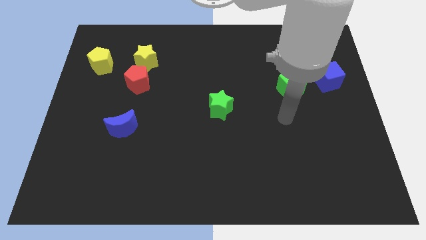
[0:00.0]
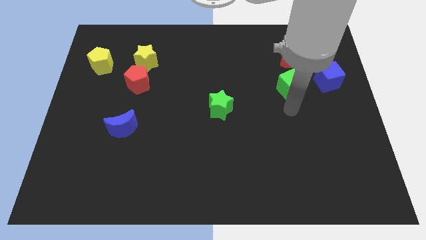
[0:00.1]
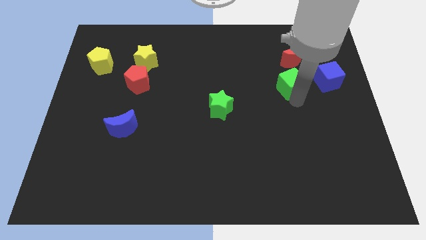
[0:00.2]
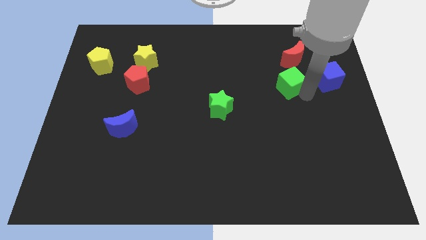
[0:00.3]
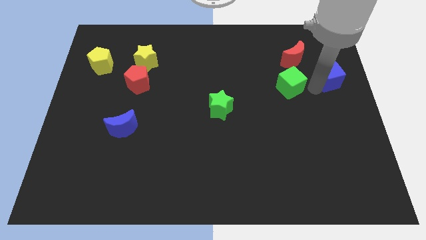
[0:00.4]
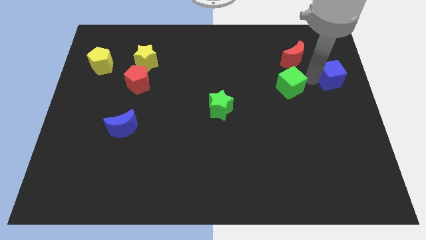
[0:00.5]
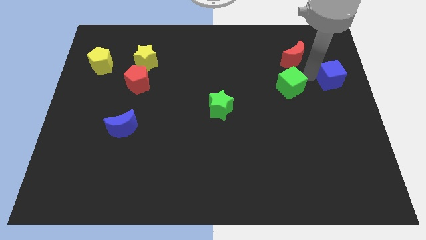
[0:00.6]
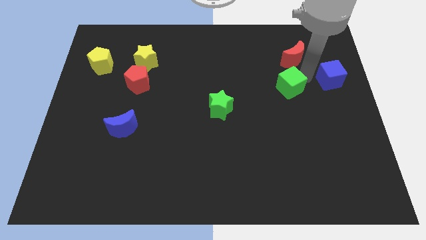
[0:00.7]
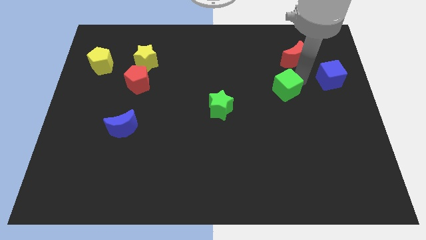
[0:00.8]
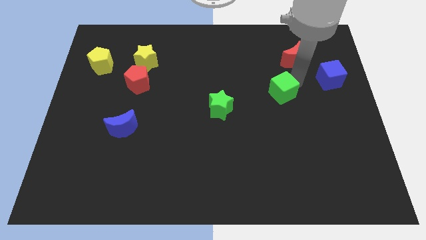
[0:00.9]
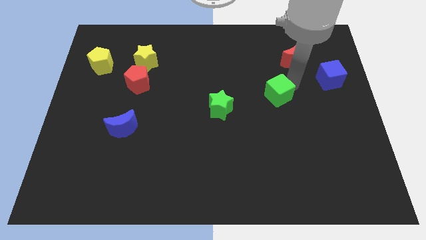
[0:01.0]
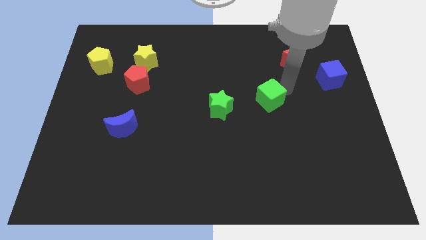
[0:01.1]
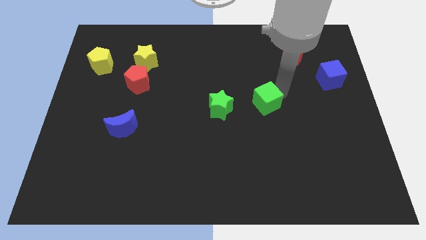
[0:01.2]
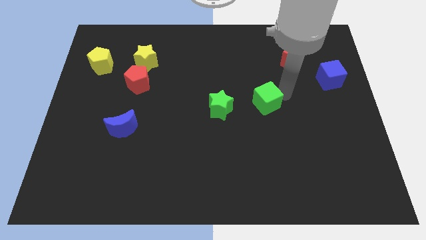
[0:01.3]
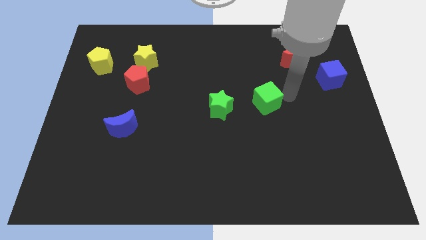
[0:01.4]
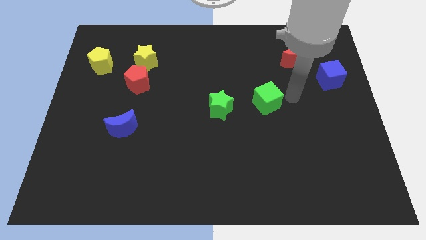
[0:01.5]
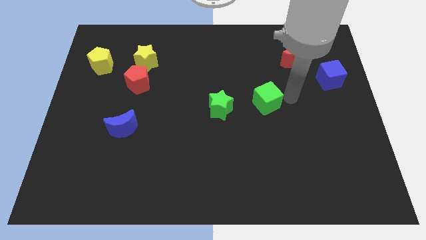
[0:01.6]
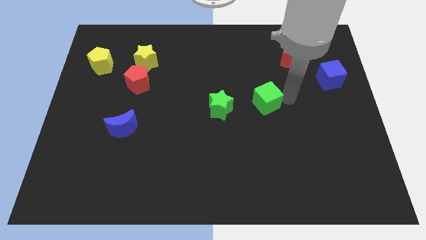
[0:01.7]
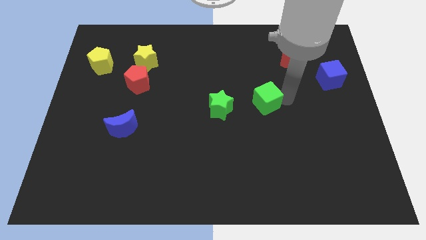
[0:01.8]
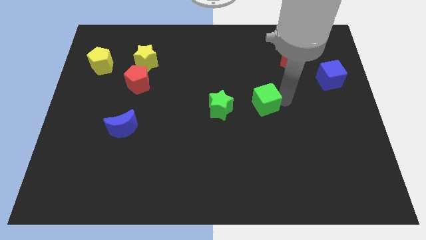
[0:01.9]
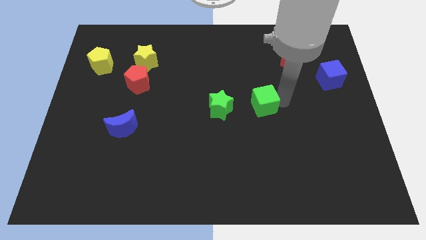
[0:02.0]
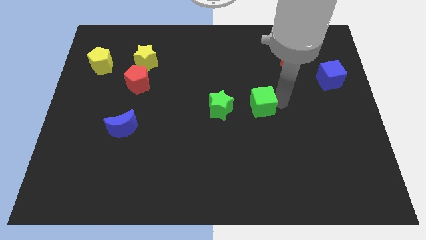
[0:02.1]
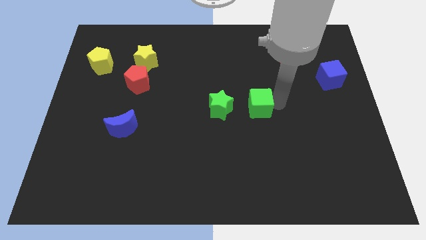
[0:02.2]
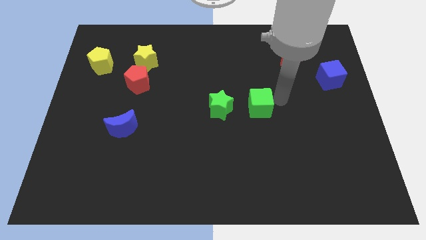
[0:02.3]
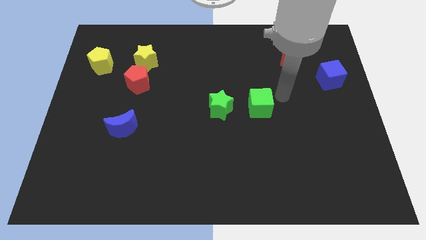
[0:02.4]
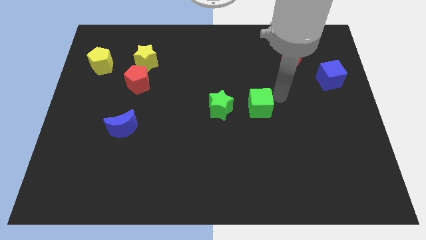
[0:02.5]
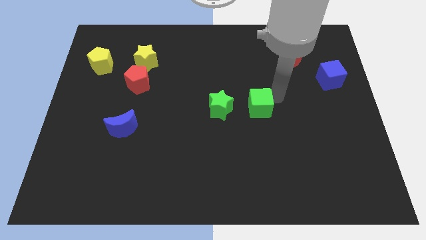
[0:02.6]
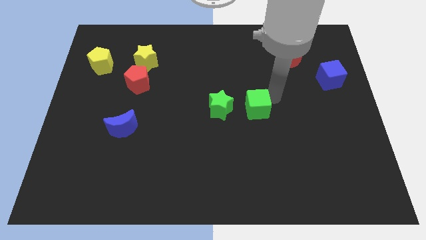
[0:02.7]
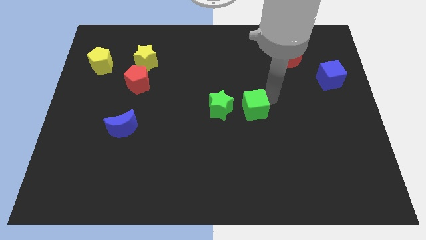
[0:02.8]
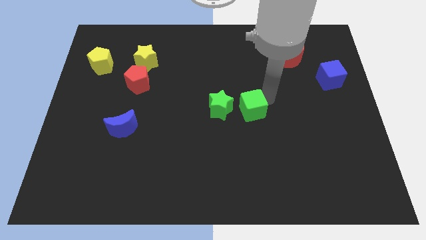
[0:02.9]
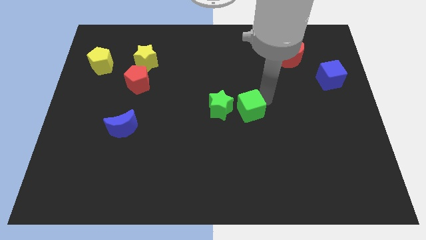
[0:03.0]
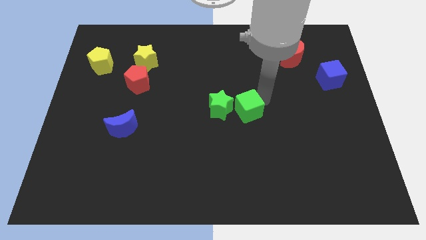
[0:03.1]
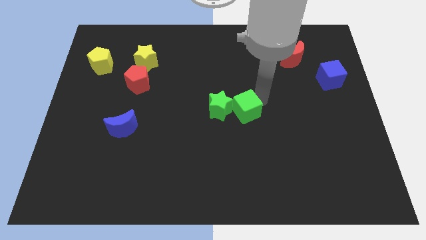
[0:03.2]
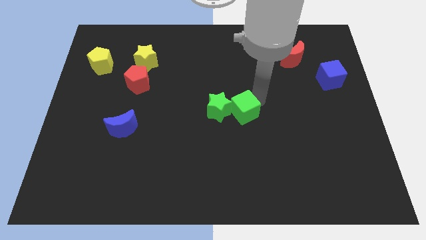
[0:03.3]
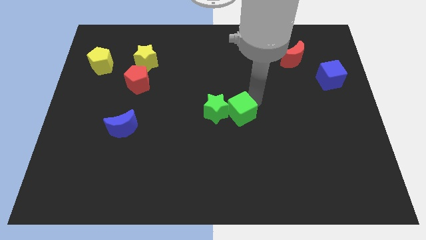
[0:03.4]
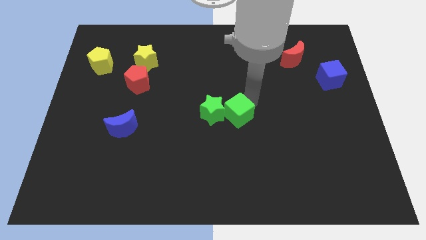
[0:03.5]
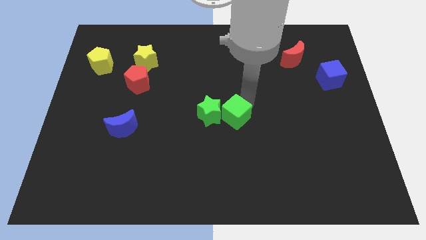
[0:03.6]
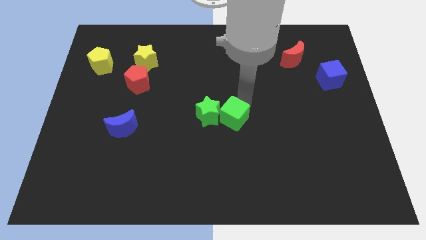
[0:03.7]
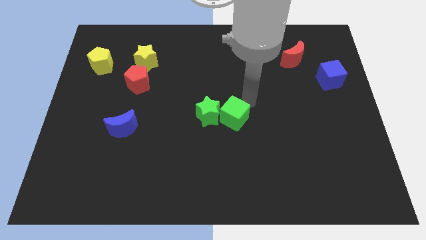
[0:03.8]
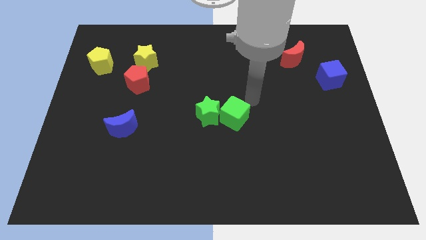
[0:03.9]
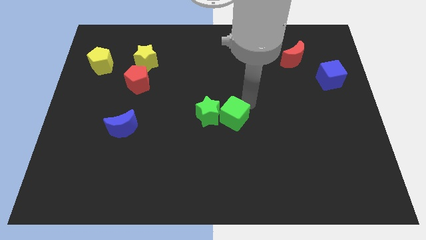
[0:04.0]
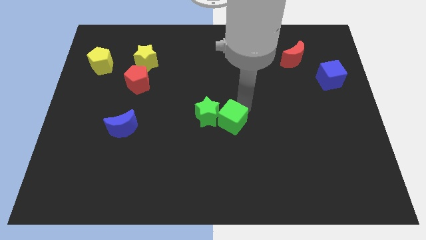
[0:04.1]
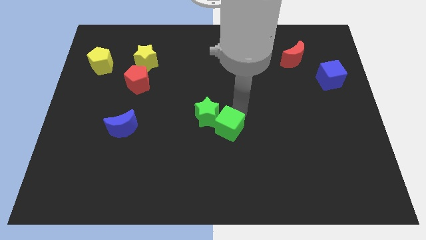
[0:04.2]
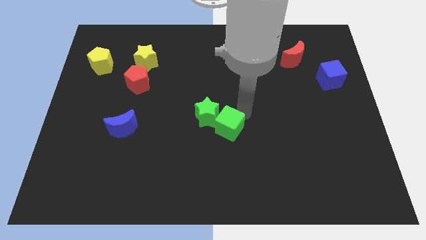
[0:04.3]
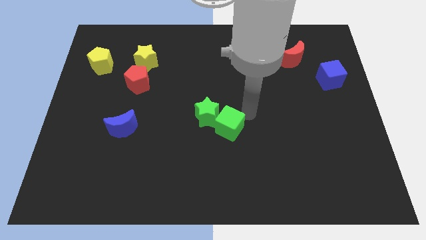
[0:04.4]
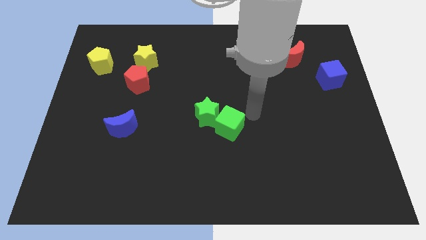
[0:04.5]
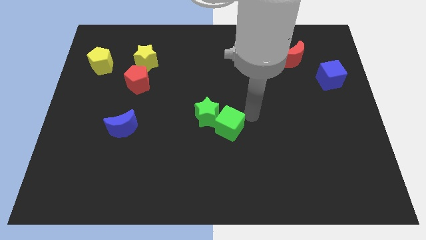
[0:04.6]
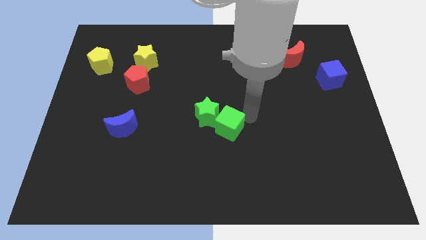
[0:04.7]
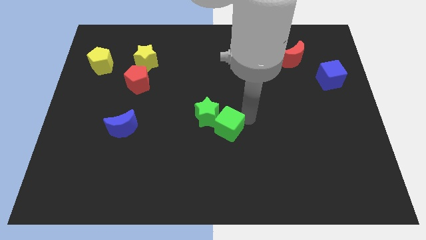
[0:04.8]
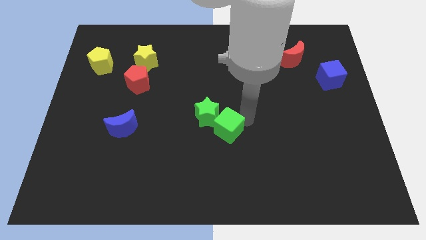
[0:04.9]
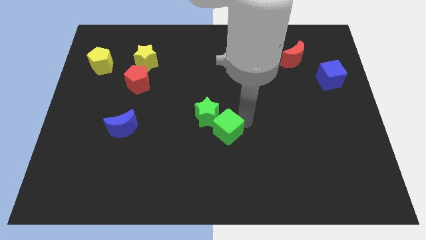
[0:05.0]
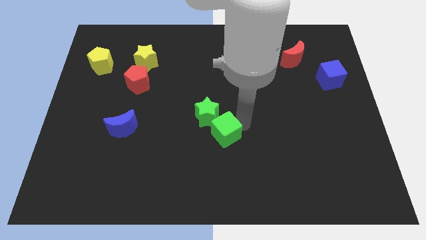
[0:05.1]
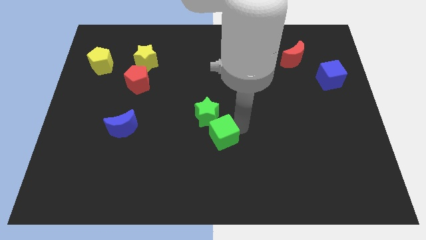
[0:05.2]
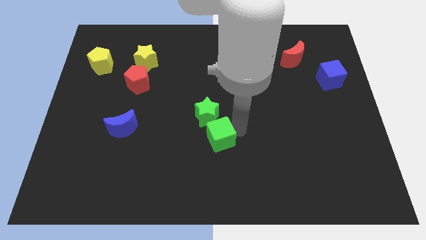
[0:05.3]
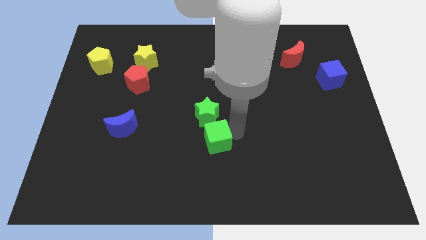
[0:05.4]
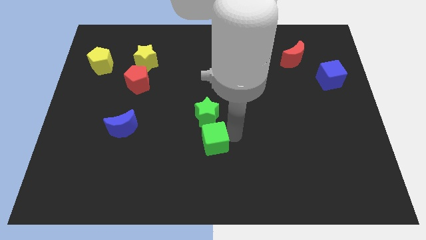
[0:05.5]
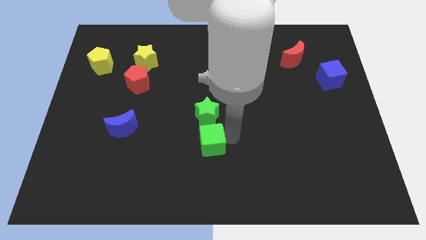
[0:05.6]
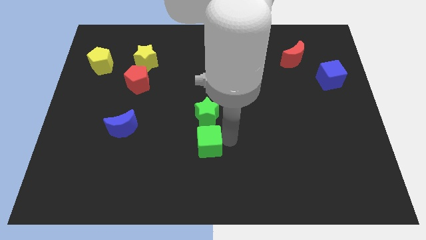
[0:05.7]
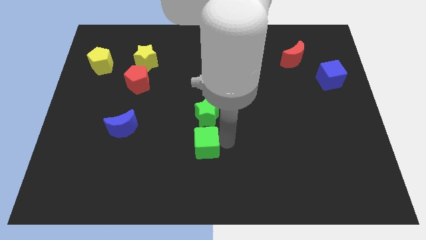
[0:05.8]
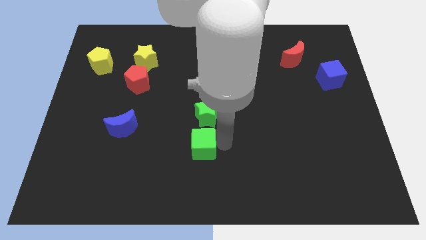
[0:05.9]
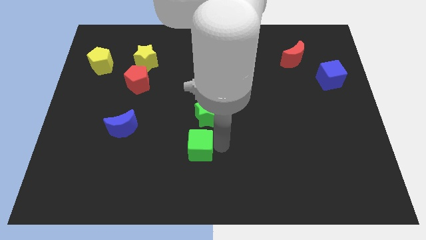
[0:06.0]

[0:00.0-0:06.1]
move the green cube to the bottom left of the green star

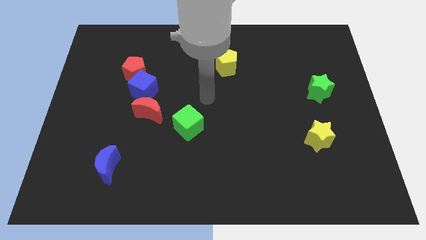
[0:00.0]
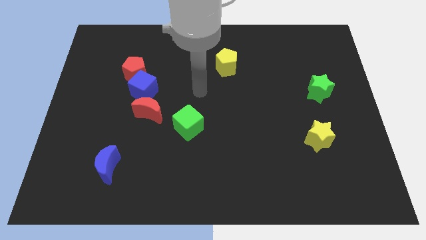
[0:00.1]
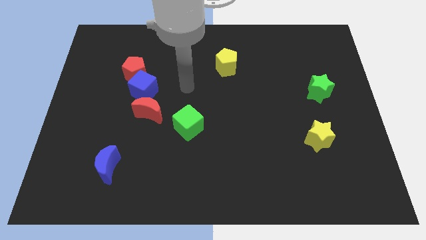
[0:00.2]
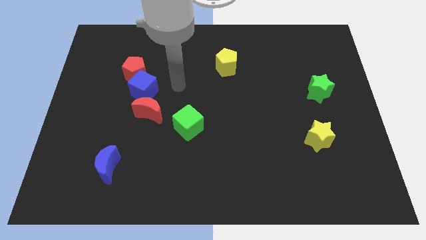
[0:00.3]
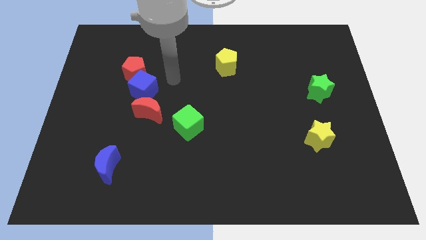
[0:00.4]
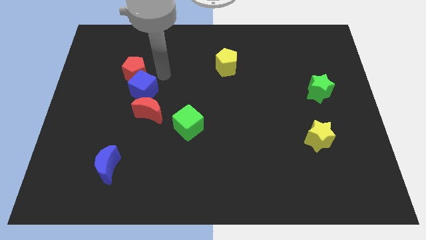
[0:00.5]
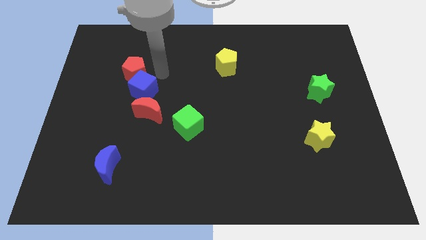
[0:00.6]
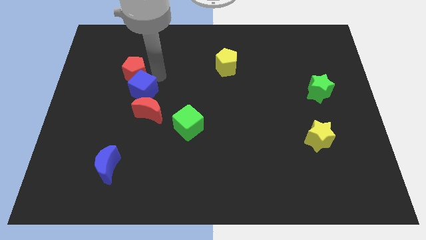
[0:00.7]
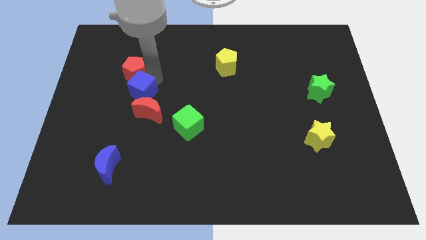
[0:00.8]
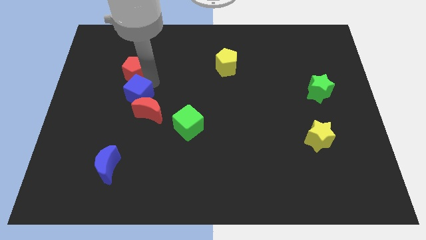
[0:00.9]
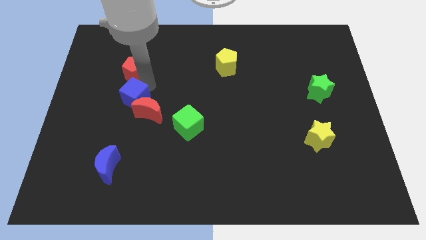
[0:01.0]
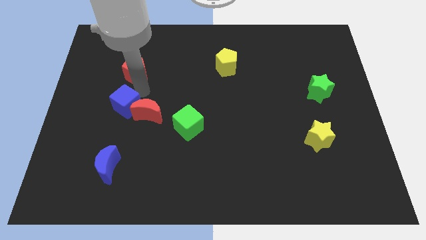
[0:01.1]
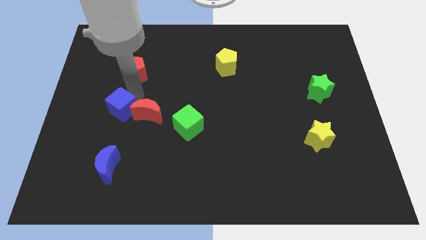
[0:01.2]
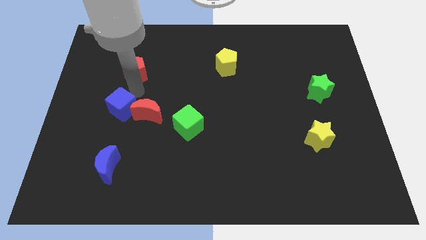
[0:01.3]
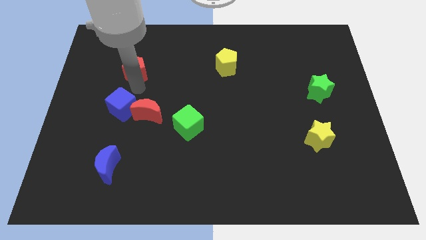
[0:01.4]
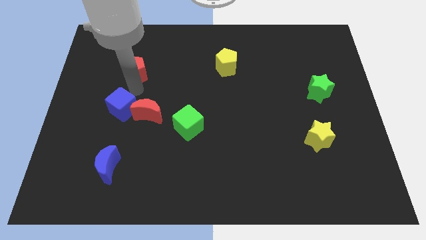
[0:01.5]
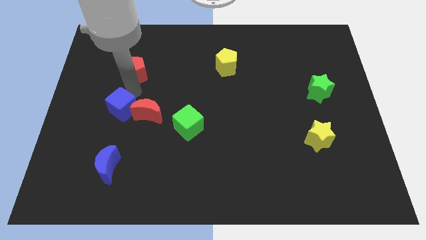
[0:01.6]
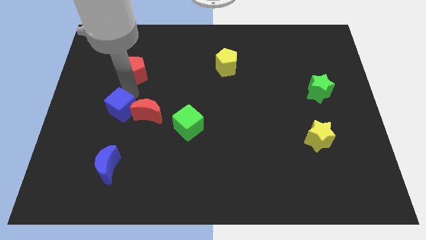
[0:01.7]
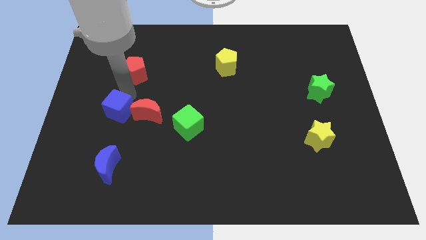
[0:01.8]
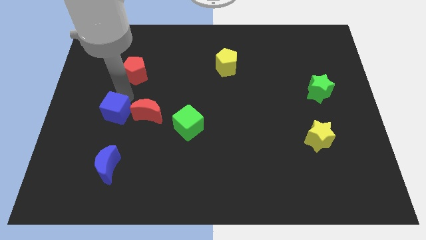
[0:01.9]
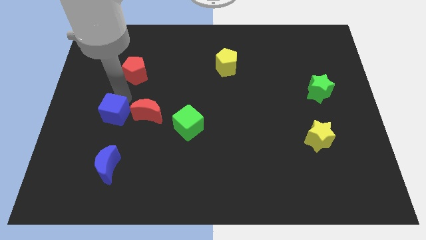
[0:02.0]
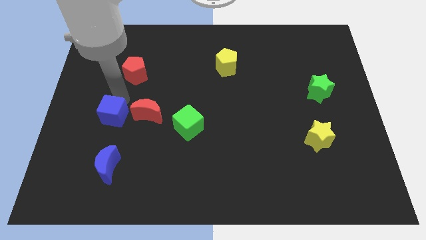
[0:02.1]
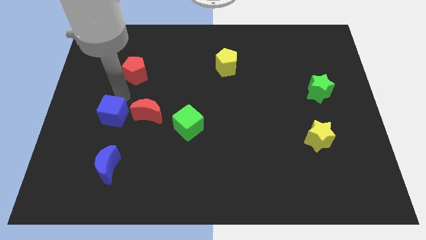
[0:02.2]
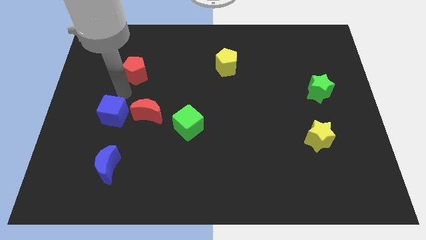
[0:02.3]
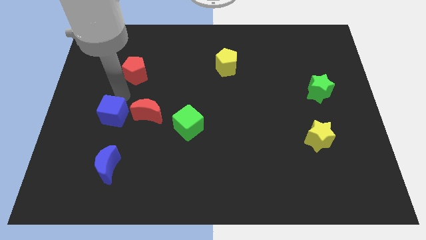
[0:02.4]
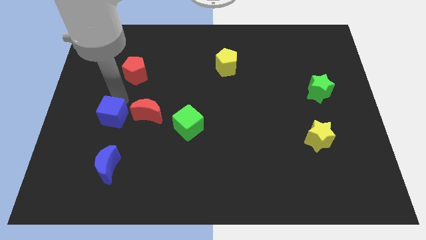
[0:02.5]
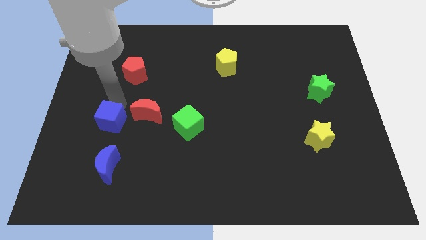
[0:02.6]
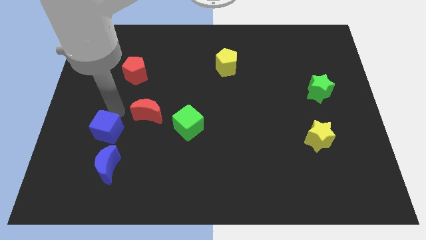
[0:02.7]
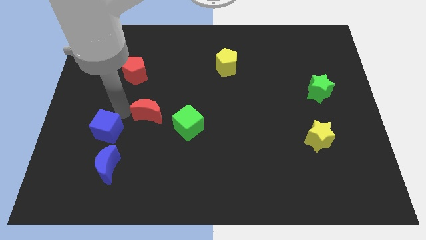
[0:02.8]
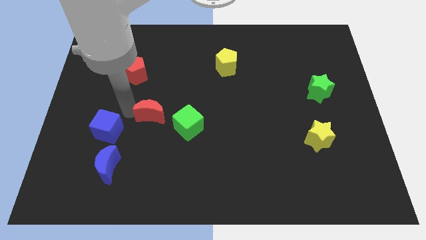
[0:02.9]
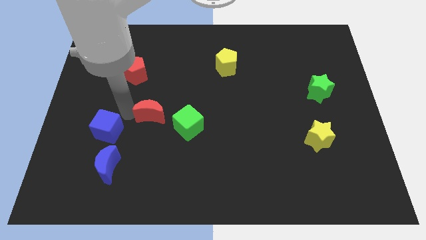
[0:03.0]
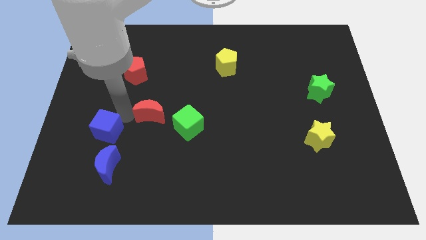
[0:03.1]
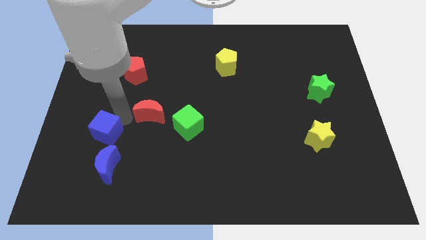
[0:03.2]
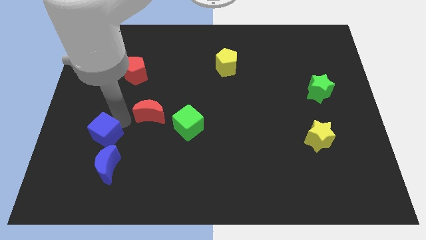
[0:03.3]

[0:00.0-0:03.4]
put the blue cube to the top left side of the blue moon
